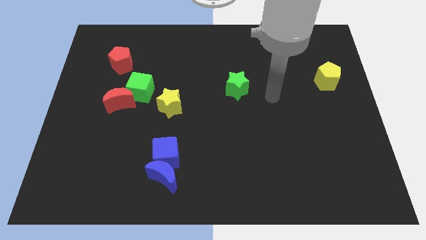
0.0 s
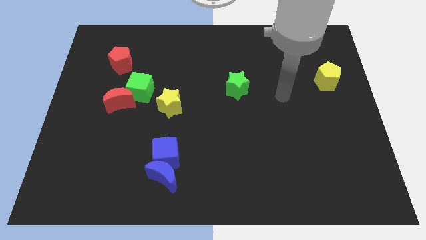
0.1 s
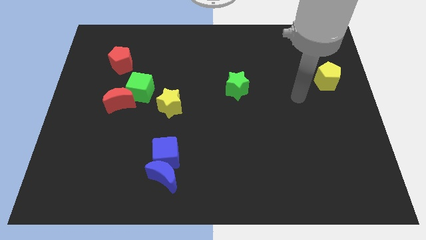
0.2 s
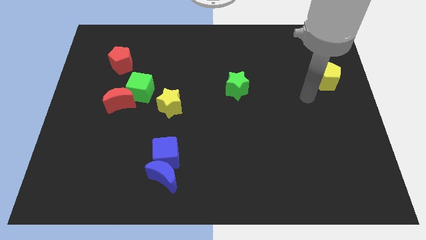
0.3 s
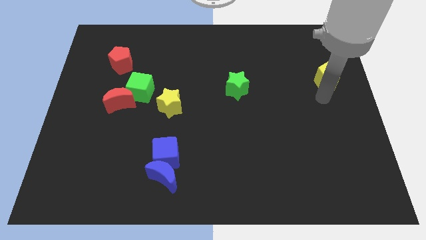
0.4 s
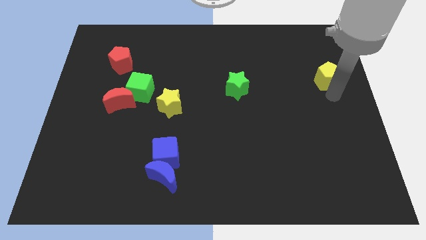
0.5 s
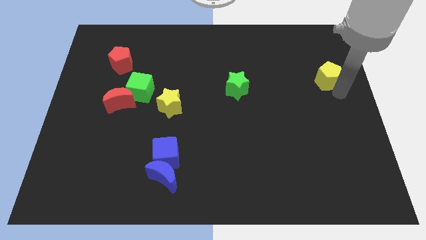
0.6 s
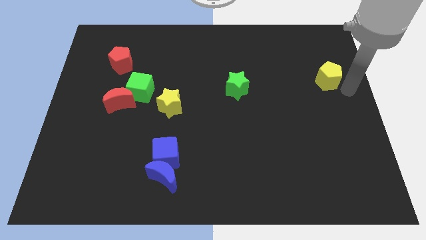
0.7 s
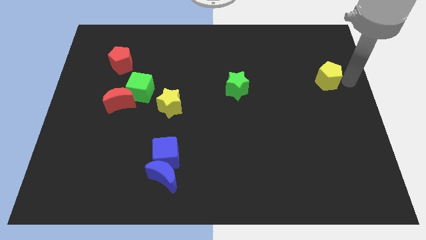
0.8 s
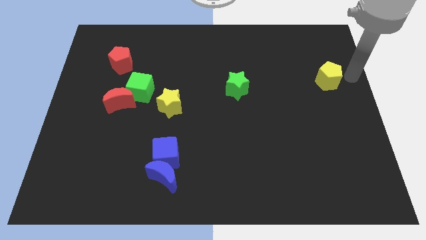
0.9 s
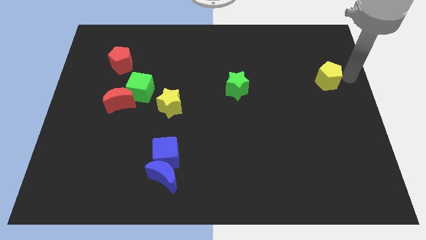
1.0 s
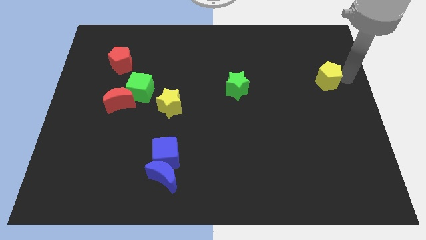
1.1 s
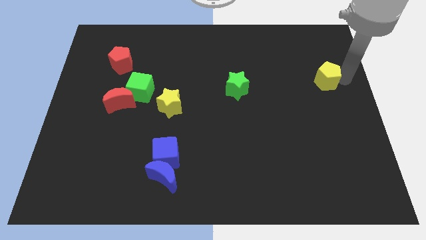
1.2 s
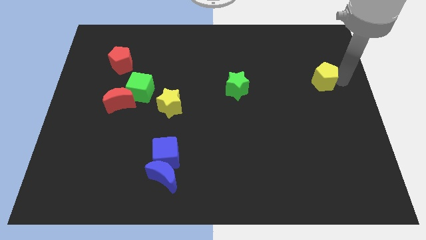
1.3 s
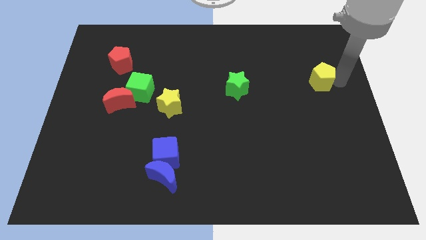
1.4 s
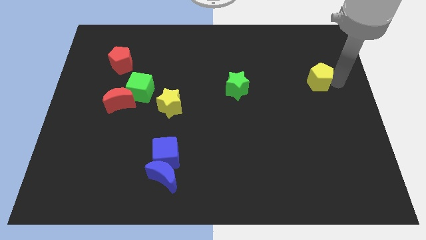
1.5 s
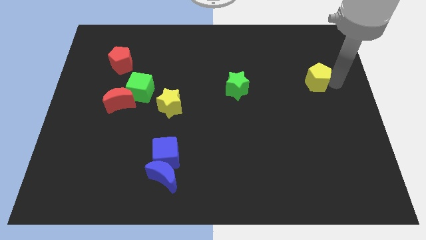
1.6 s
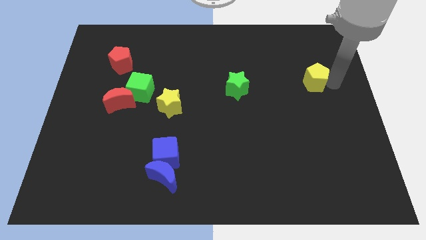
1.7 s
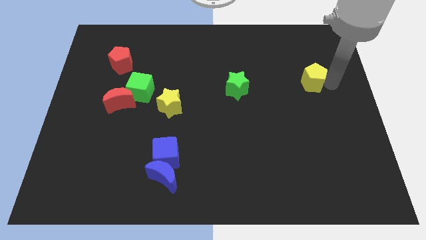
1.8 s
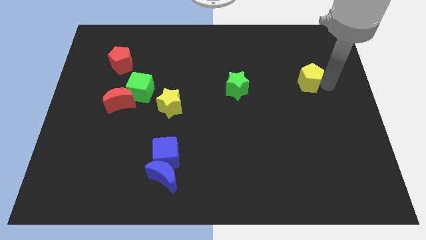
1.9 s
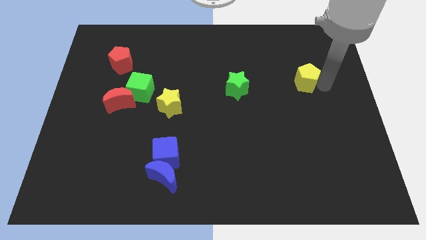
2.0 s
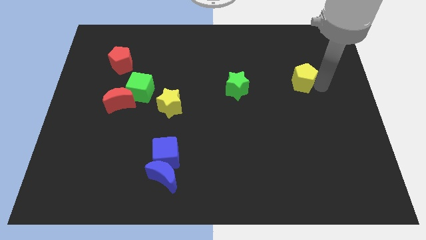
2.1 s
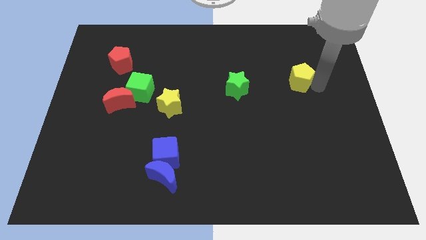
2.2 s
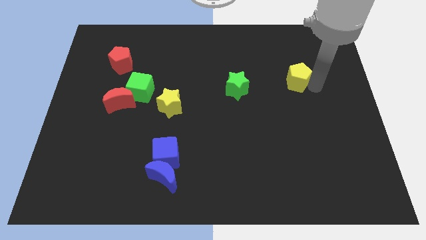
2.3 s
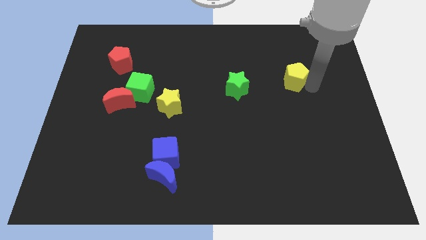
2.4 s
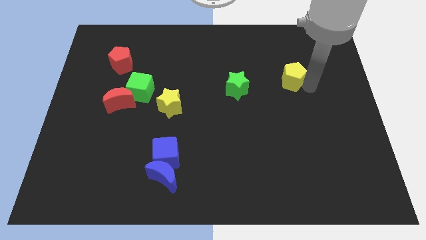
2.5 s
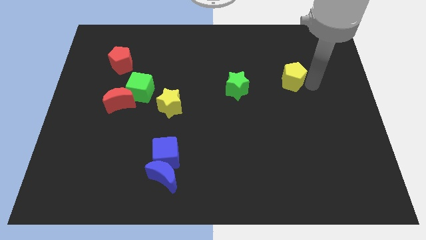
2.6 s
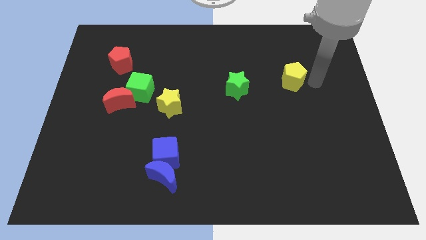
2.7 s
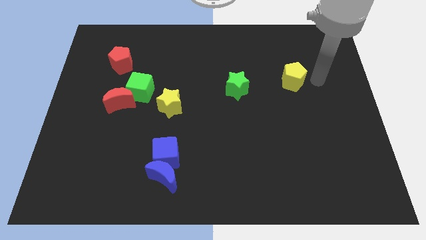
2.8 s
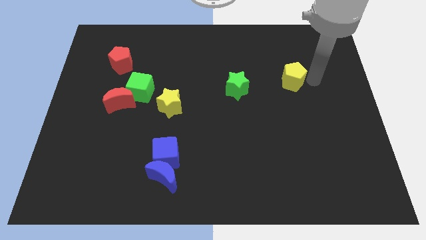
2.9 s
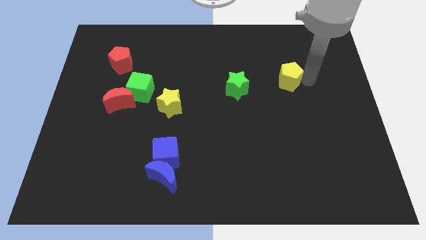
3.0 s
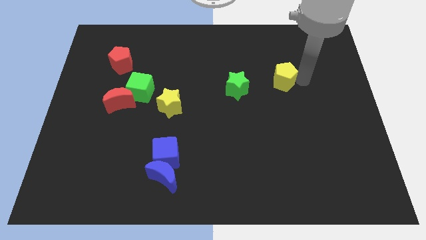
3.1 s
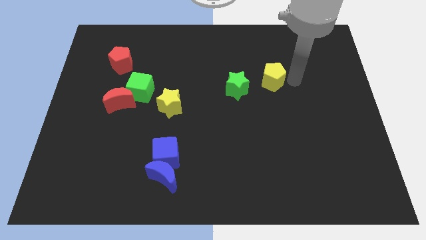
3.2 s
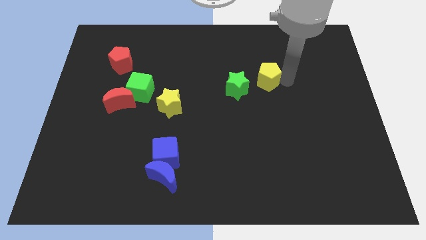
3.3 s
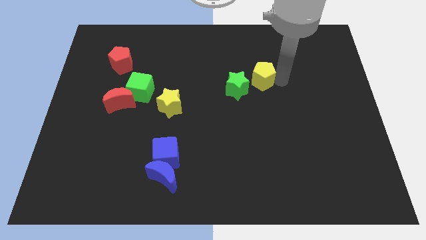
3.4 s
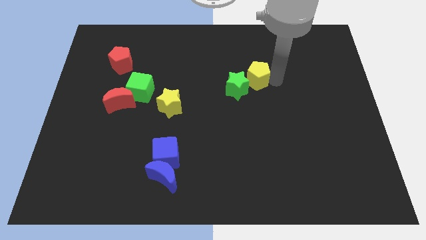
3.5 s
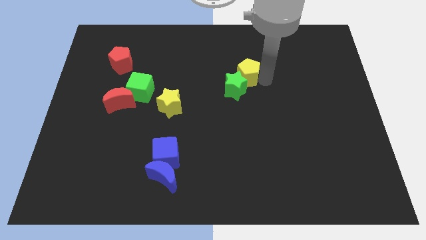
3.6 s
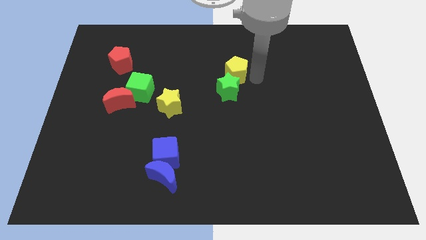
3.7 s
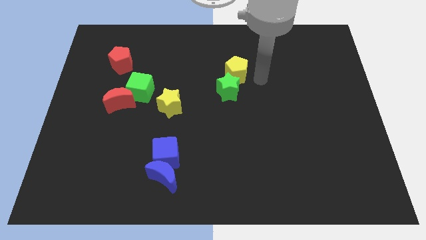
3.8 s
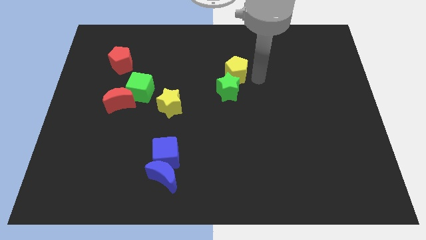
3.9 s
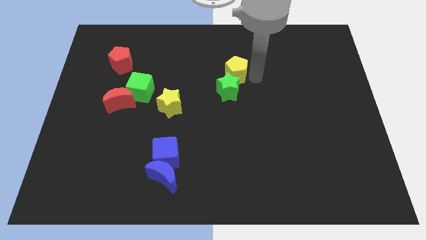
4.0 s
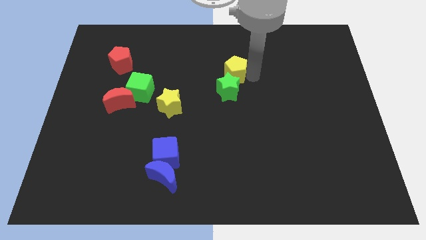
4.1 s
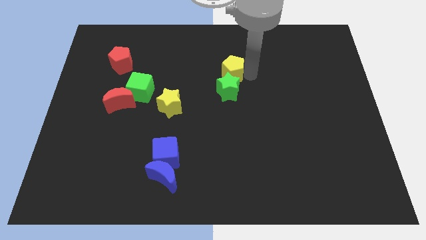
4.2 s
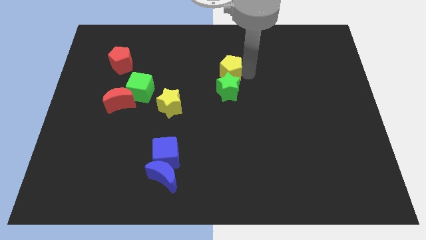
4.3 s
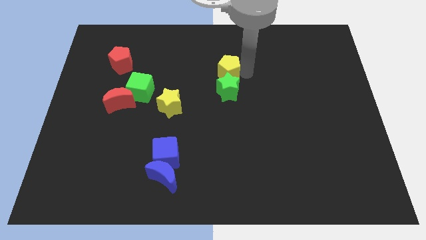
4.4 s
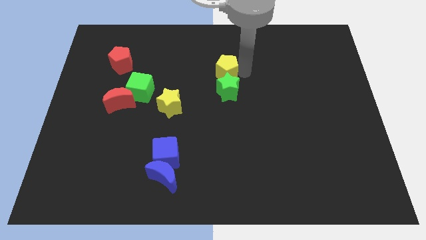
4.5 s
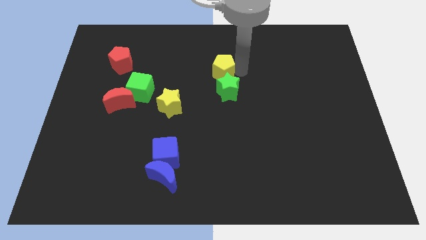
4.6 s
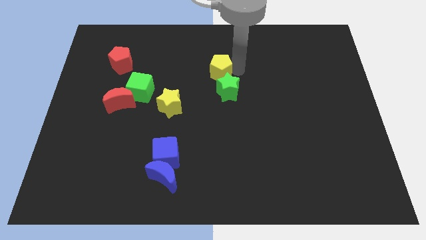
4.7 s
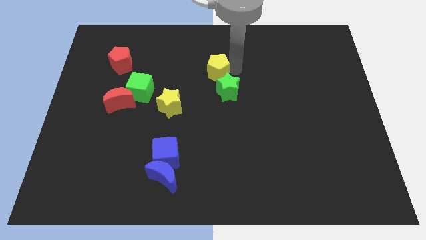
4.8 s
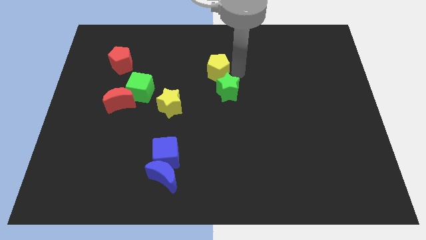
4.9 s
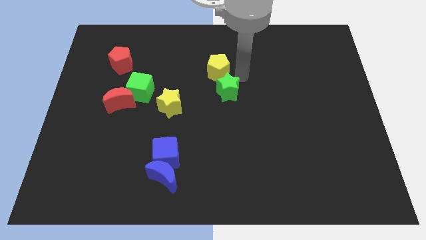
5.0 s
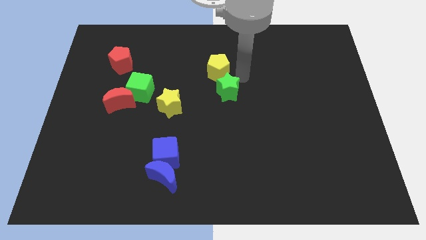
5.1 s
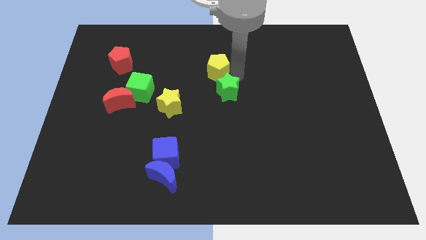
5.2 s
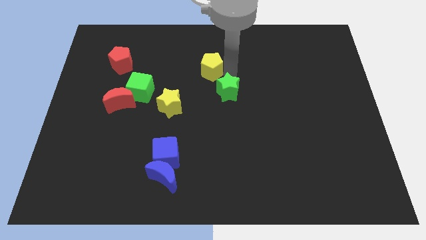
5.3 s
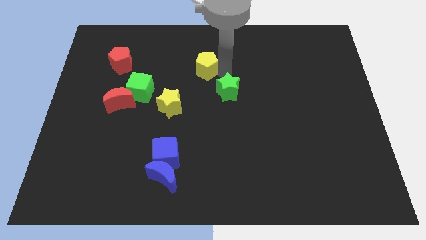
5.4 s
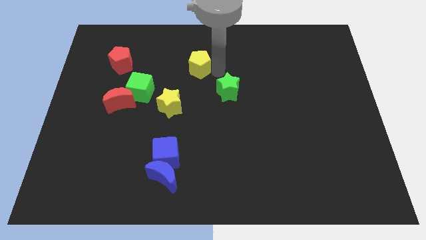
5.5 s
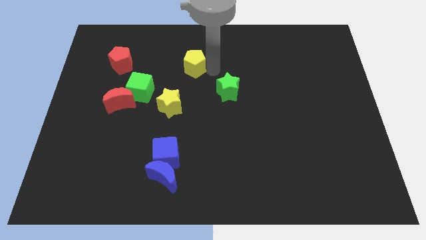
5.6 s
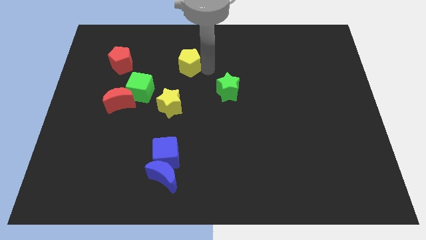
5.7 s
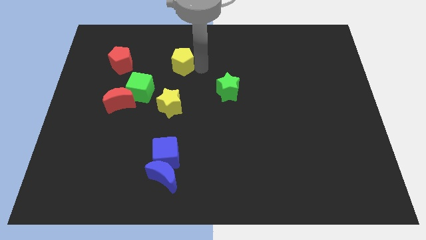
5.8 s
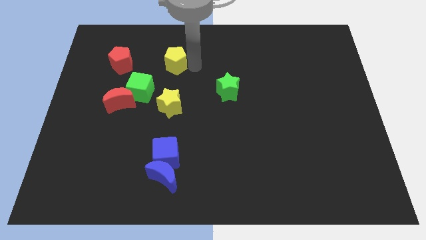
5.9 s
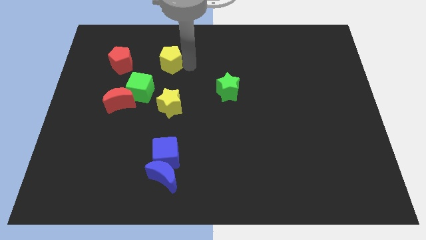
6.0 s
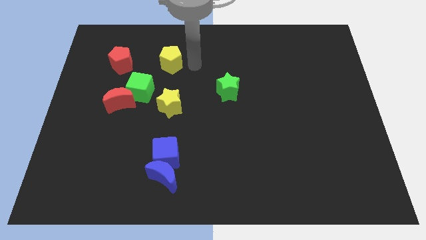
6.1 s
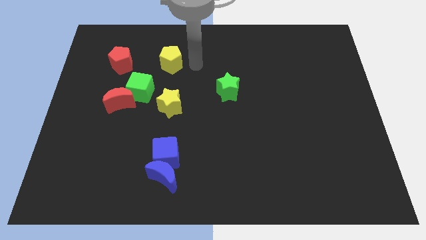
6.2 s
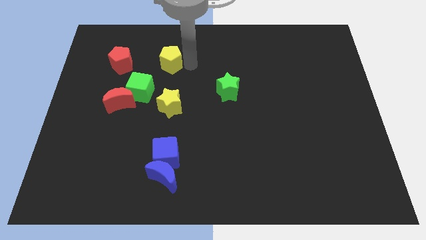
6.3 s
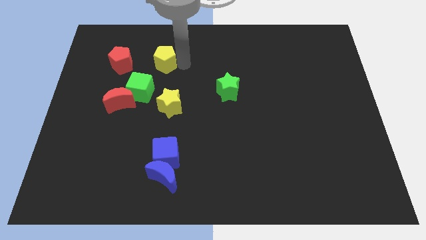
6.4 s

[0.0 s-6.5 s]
move the yellow pentagon above the green cube

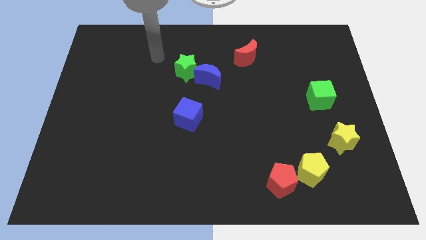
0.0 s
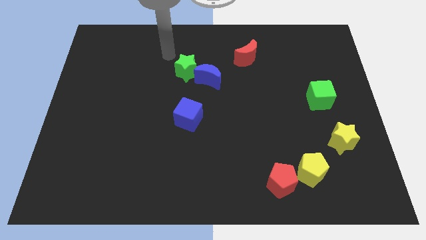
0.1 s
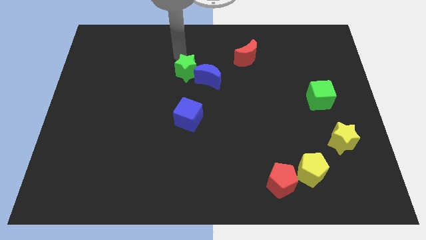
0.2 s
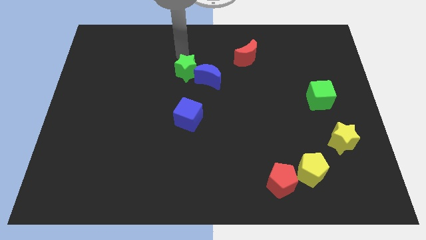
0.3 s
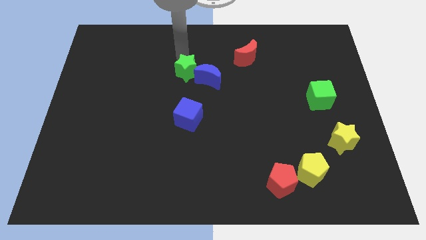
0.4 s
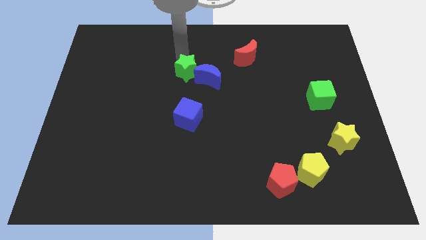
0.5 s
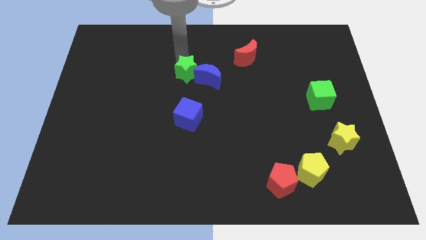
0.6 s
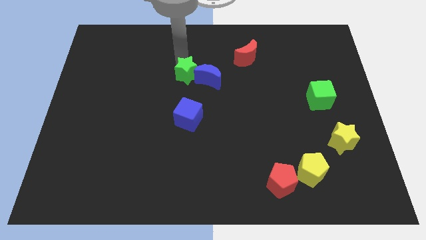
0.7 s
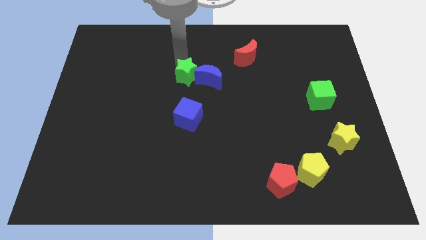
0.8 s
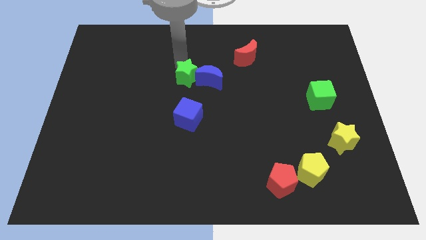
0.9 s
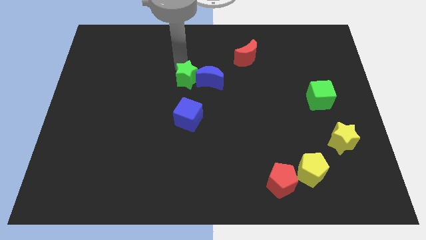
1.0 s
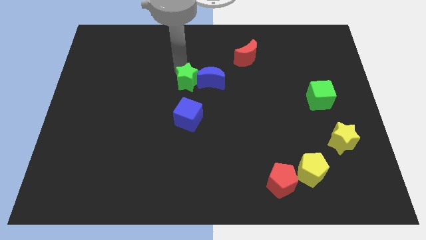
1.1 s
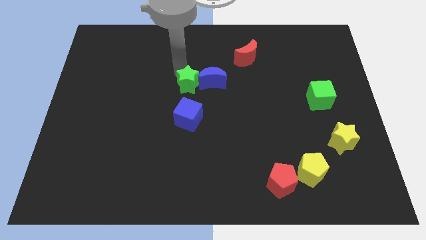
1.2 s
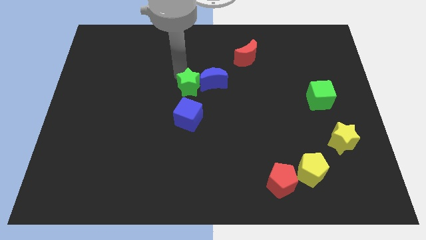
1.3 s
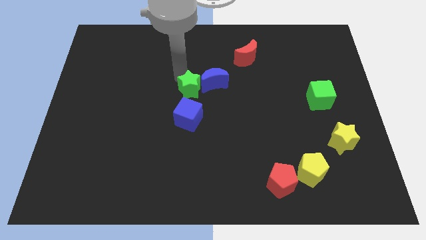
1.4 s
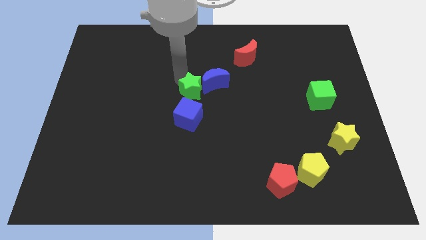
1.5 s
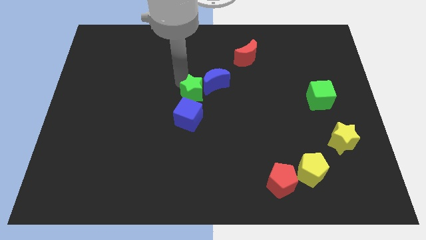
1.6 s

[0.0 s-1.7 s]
move the green star to the top right side of the blue cube
